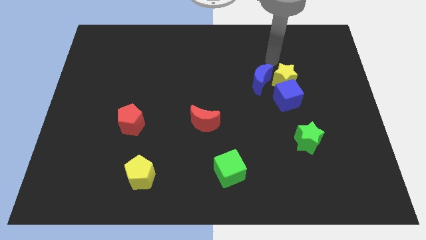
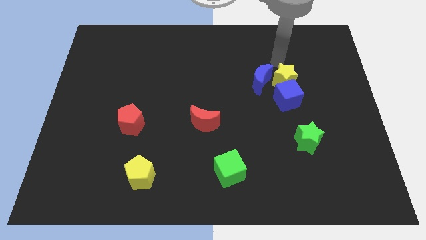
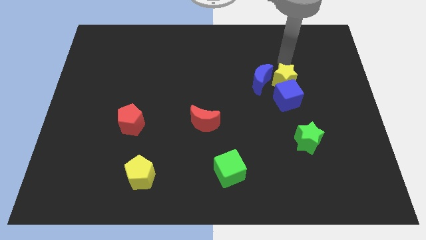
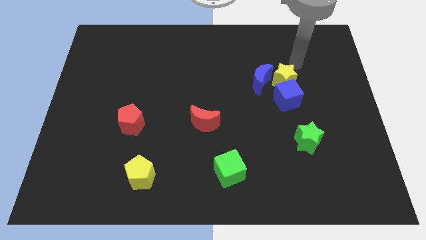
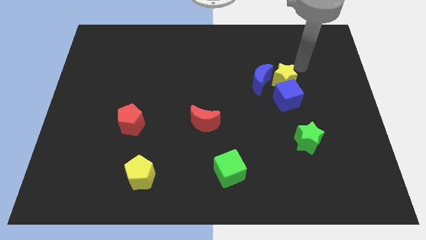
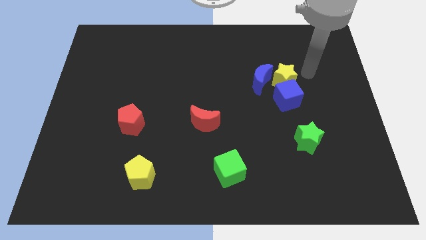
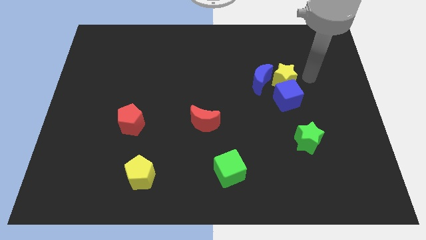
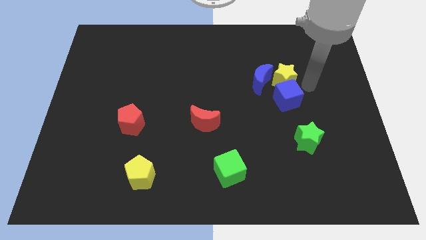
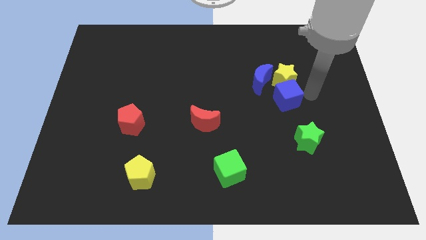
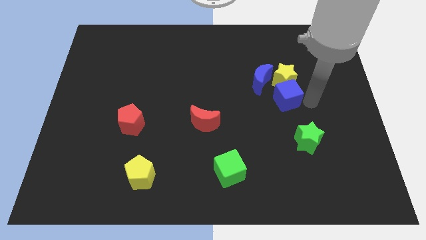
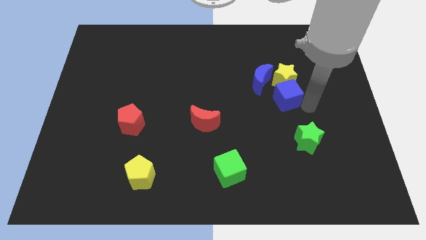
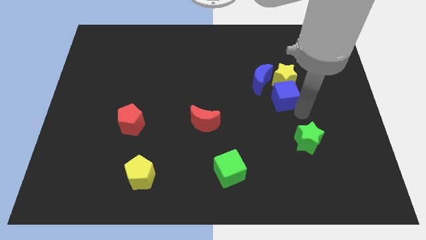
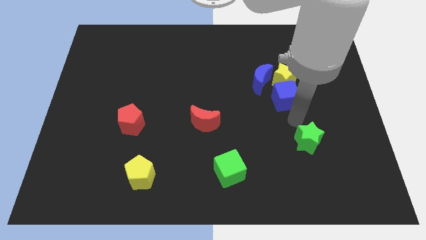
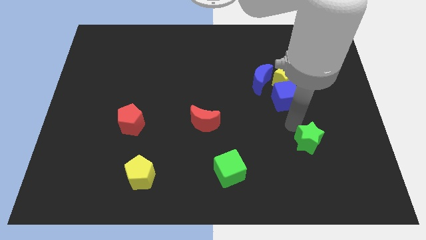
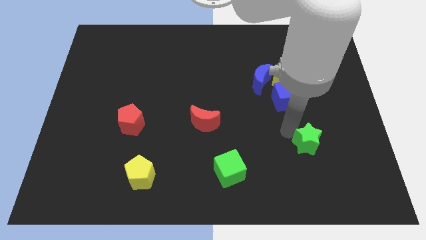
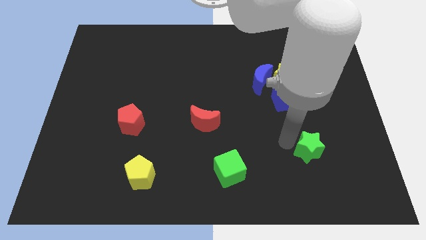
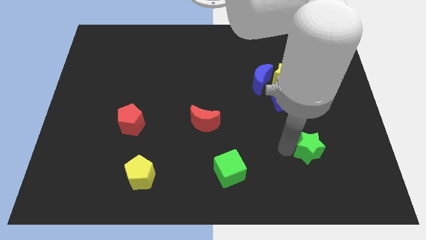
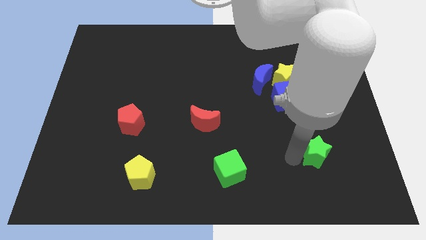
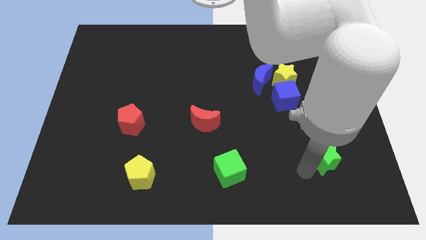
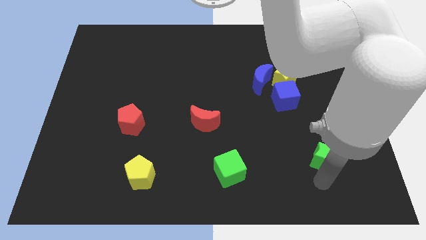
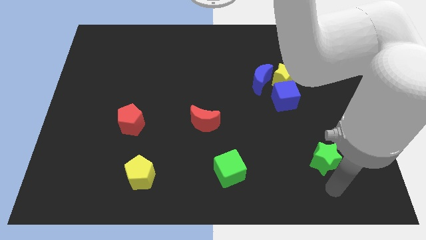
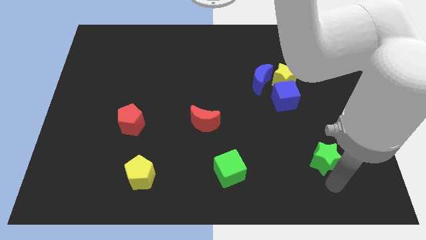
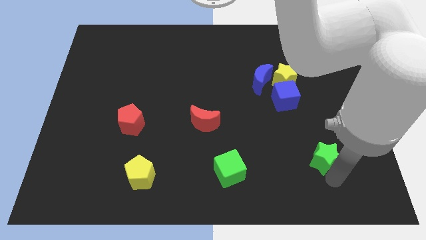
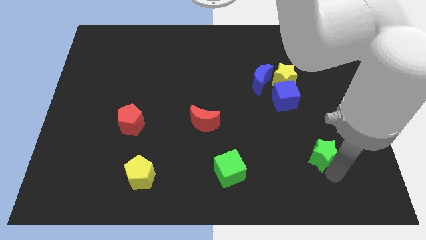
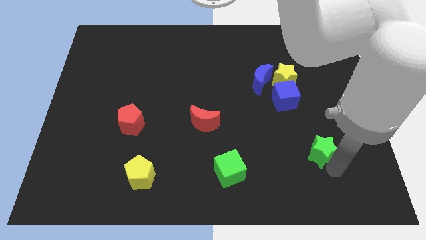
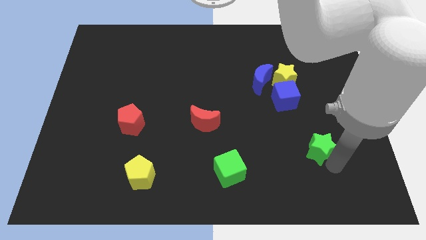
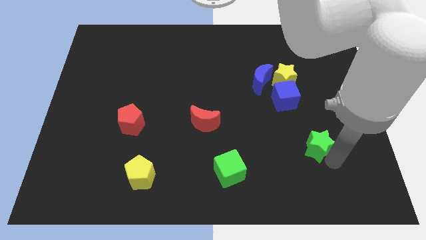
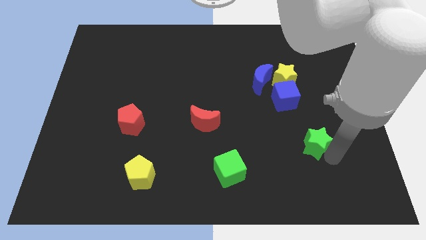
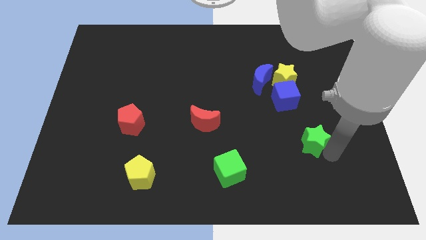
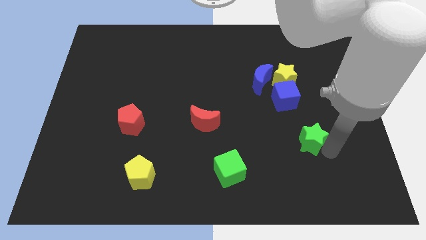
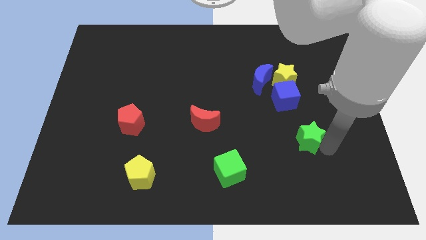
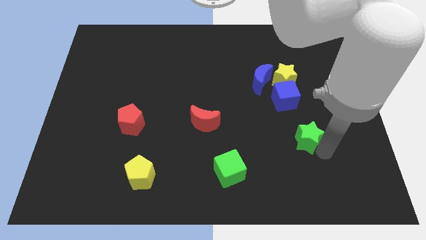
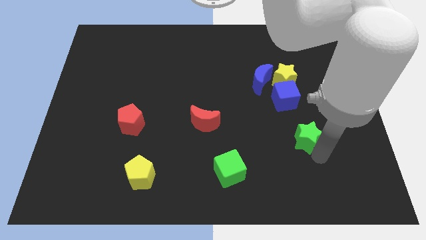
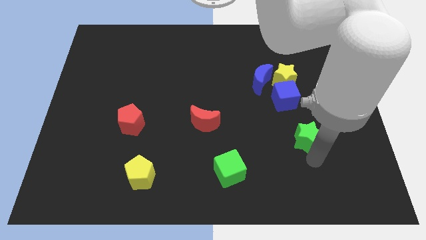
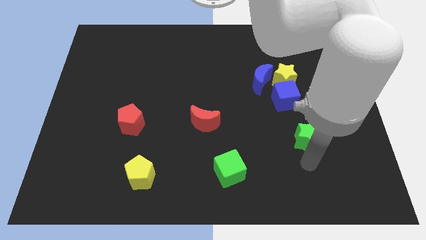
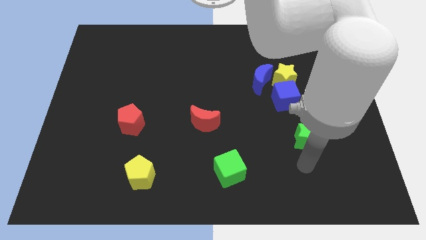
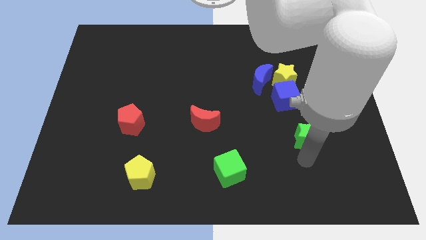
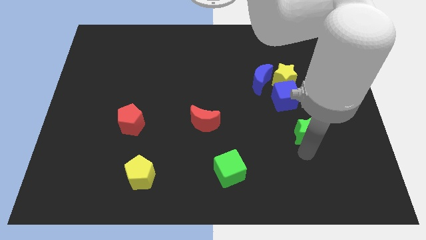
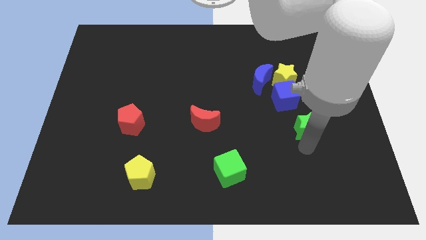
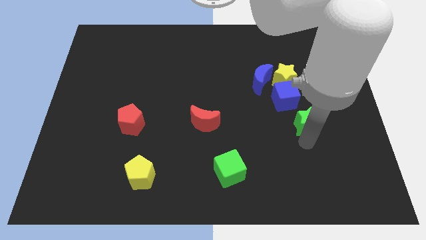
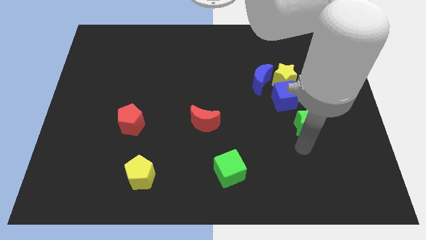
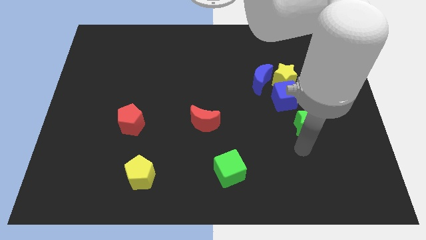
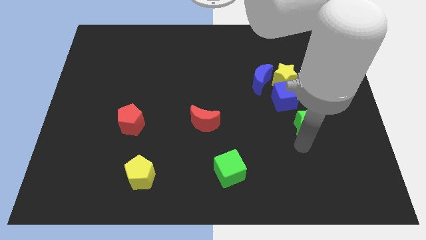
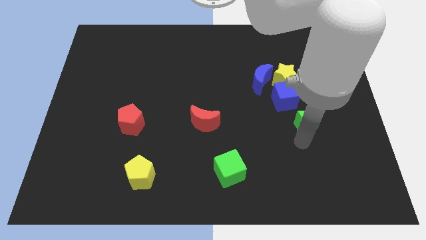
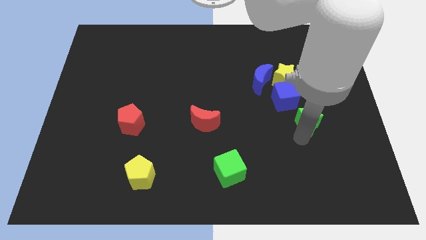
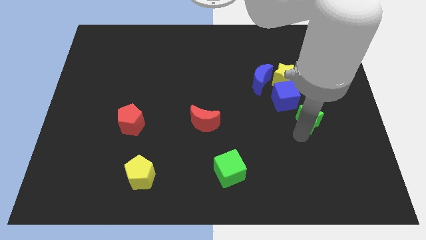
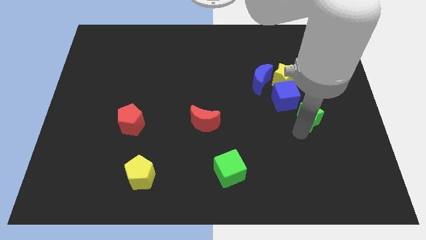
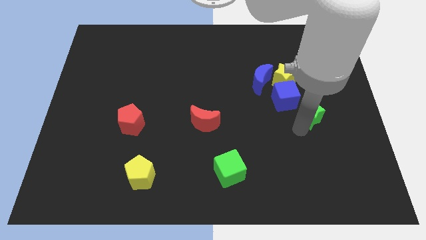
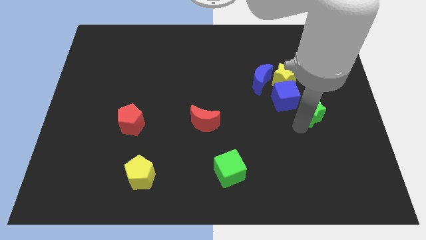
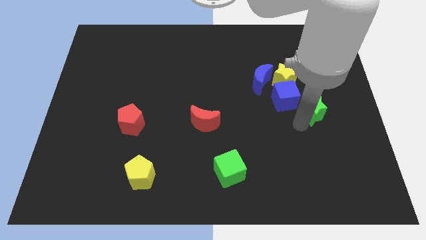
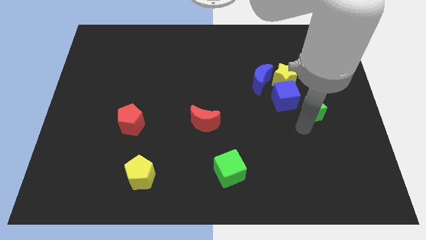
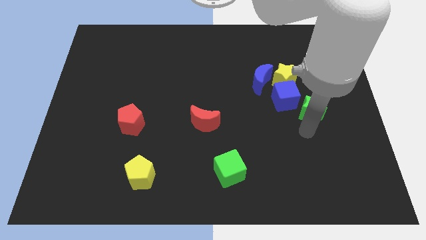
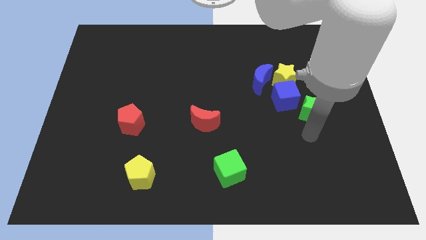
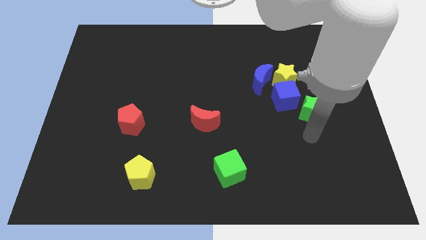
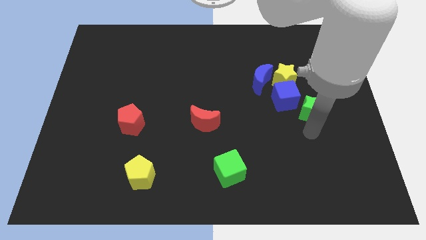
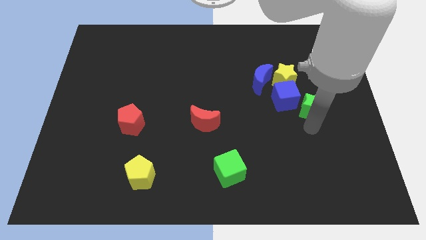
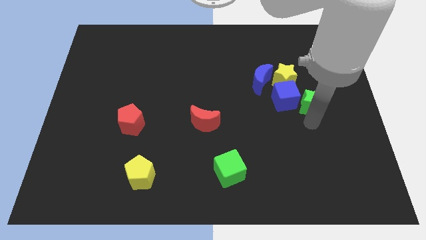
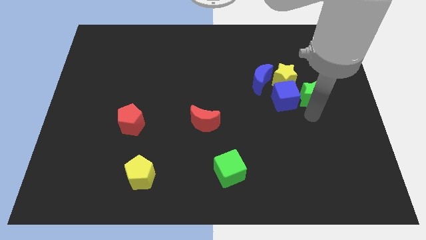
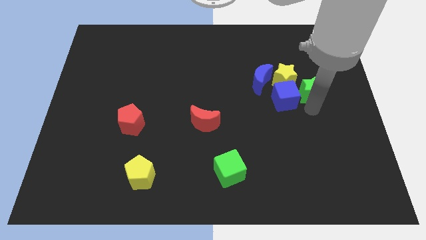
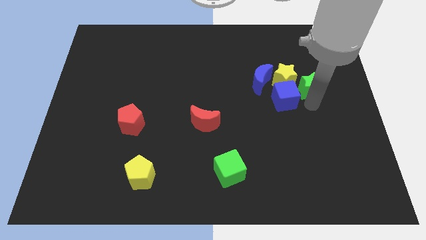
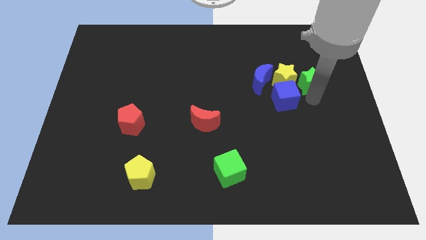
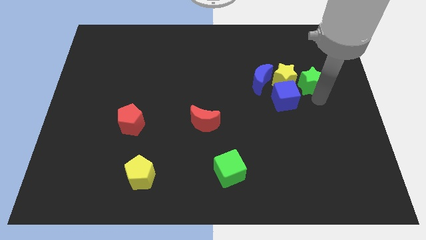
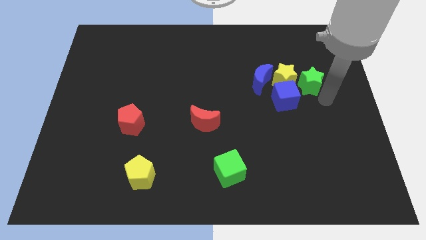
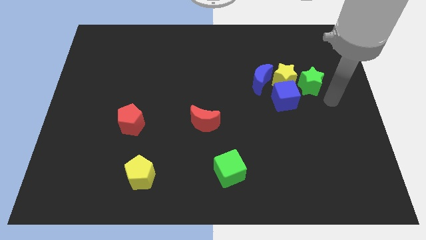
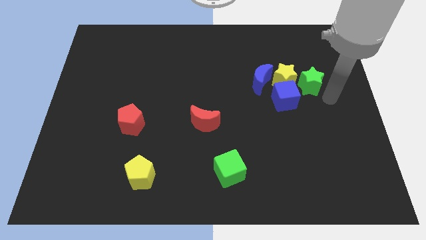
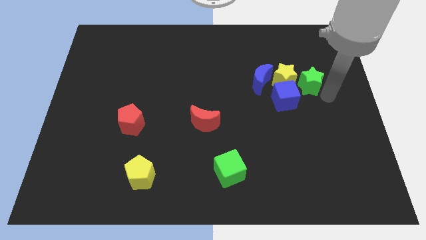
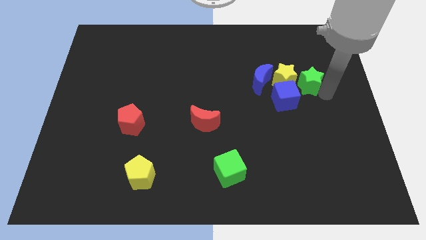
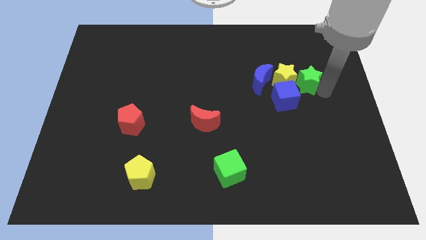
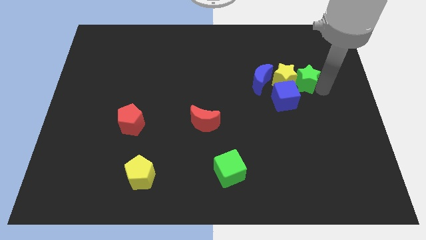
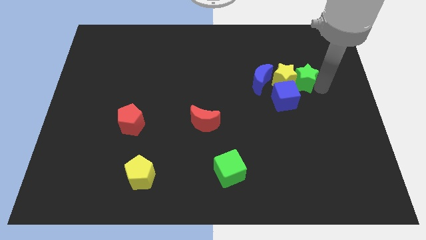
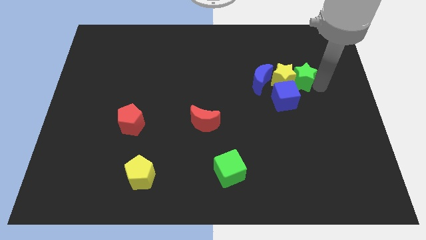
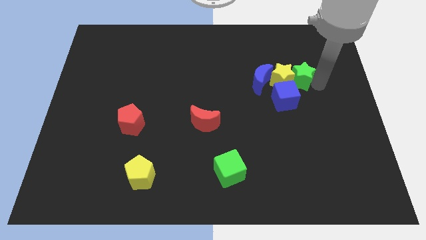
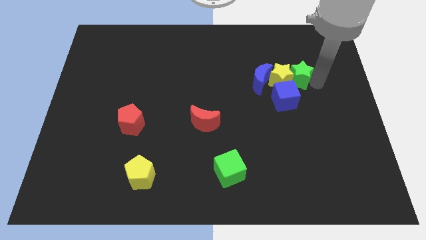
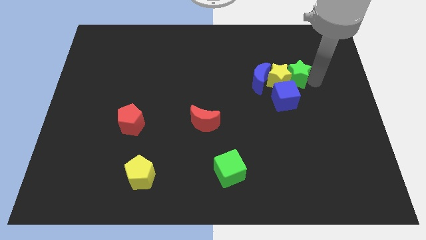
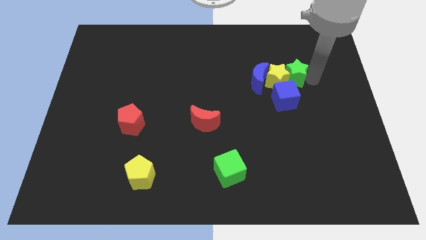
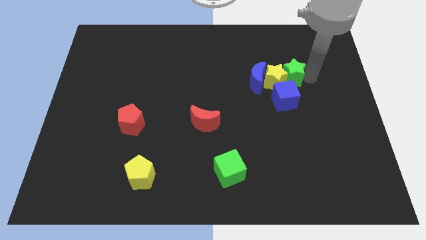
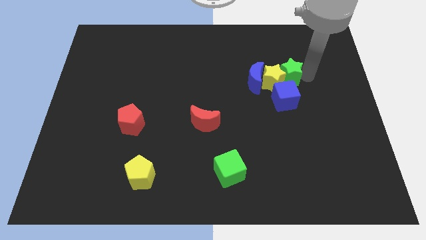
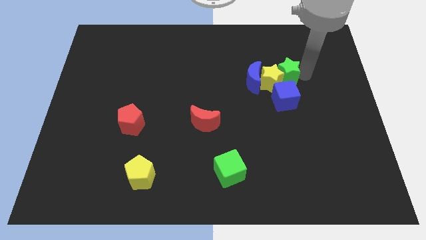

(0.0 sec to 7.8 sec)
move the green star diagonally up and to the right of the blue moon
